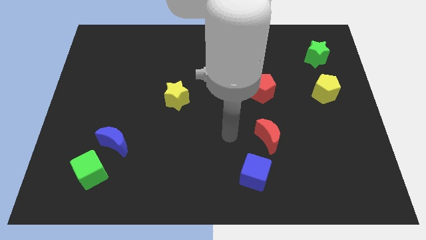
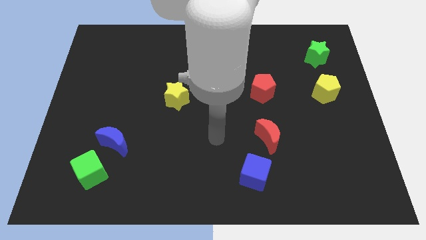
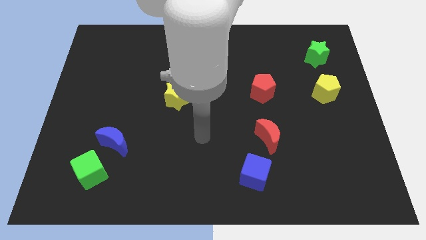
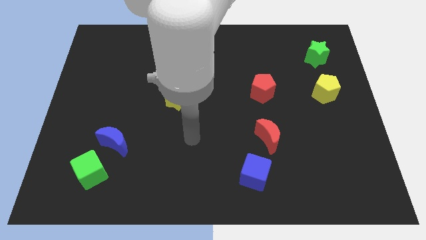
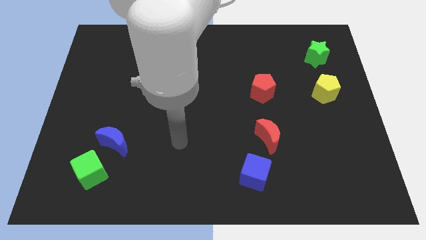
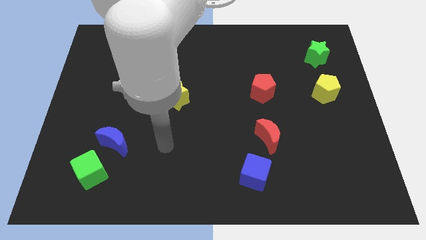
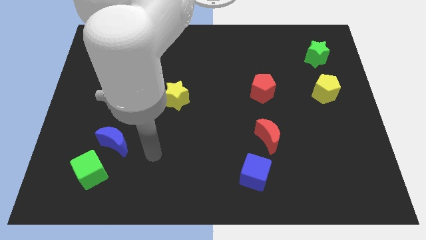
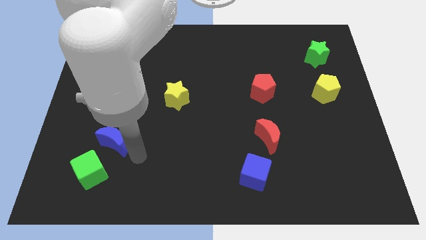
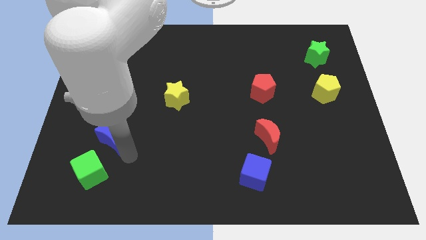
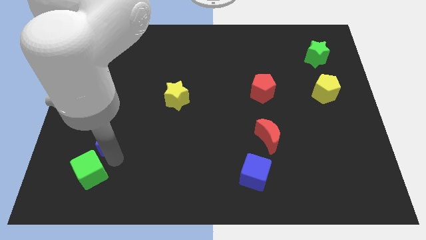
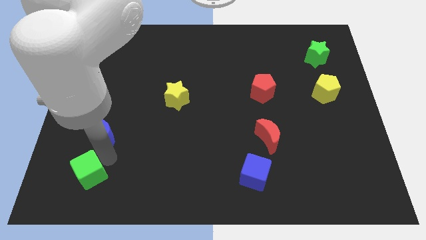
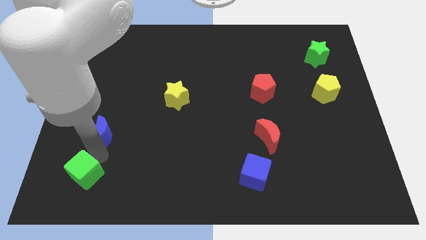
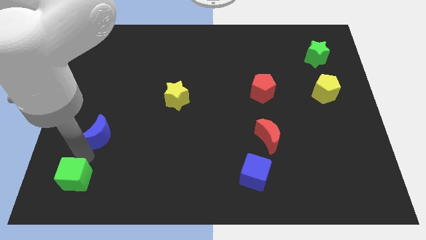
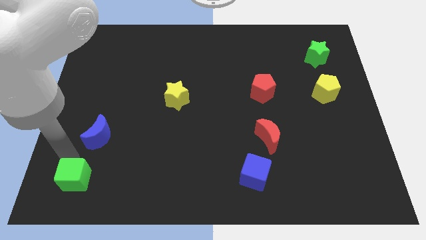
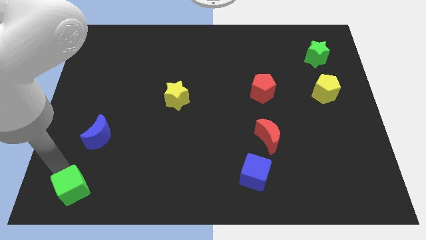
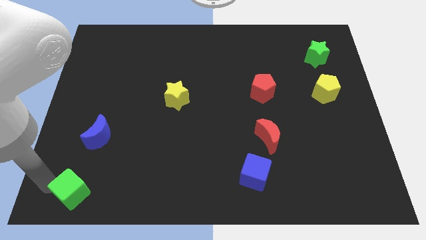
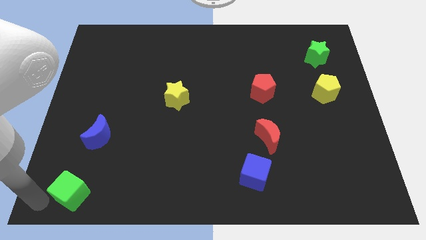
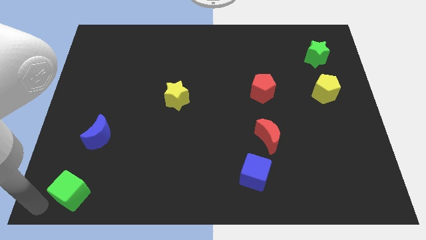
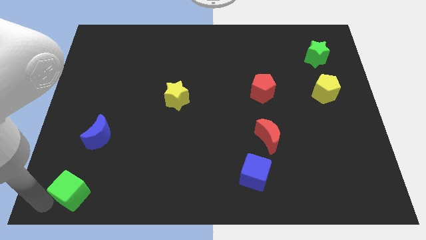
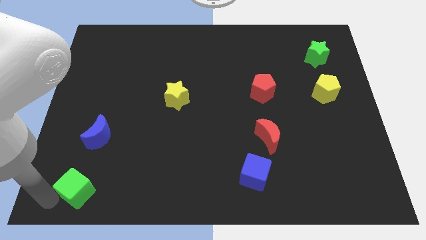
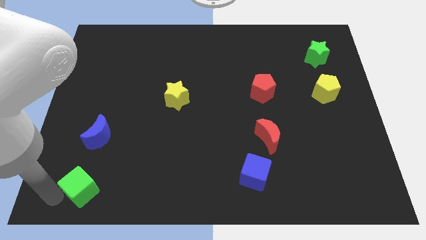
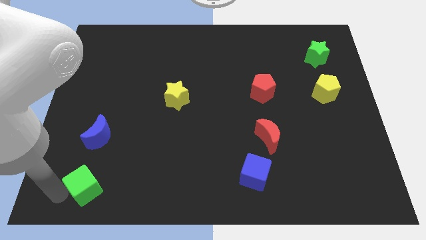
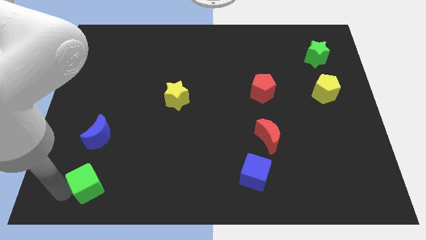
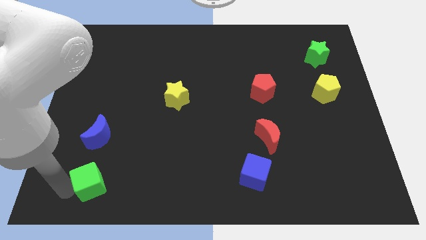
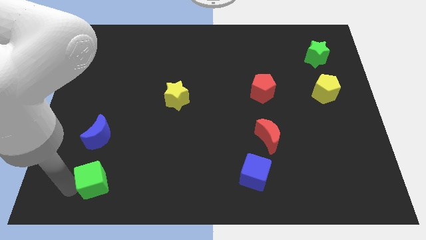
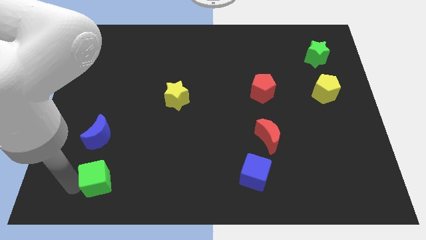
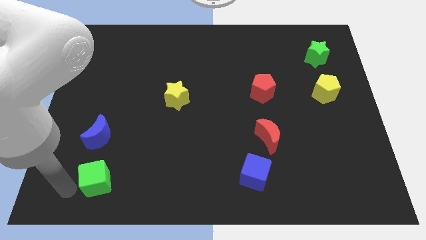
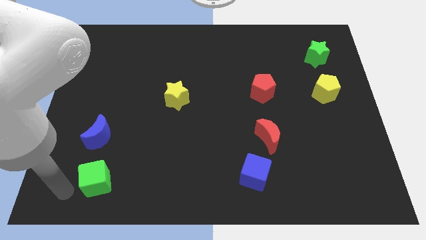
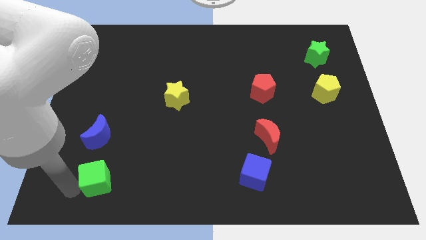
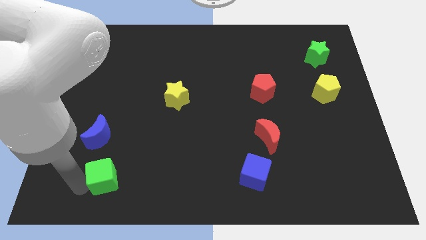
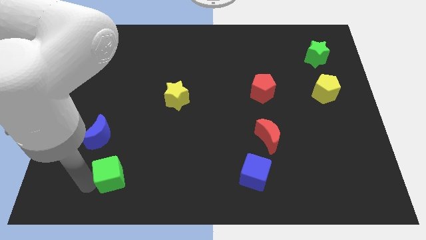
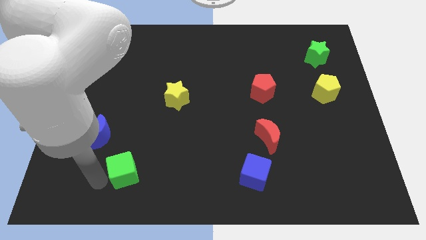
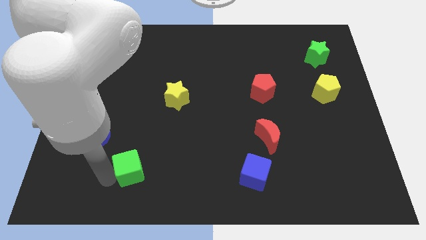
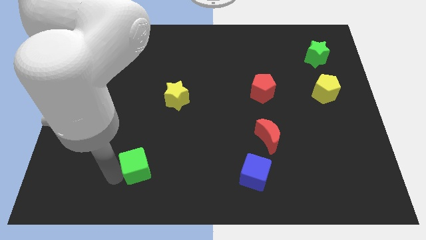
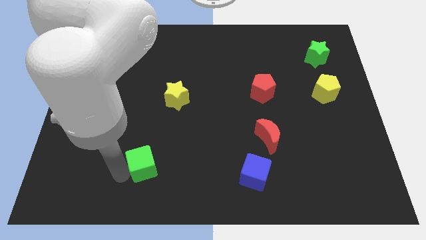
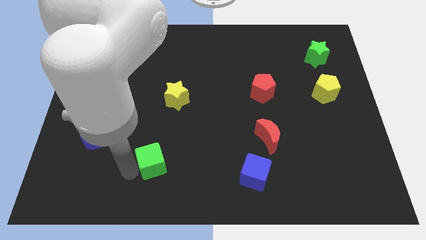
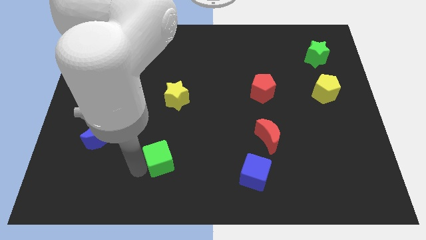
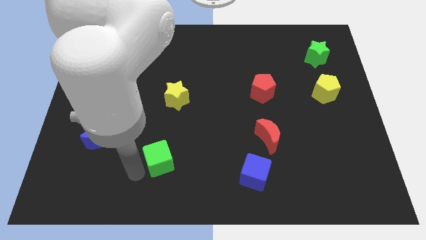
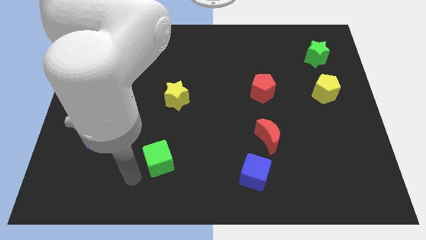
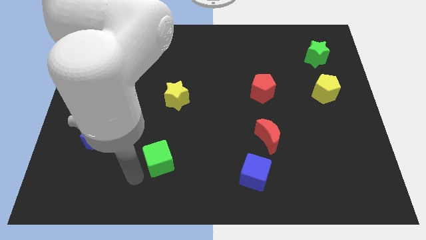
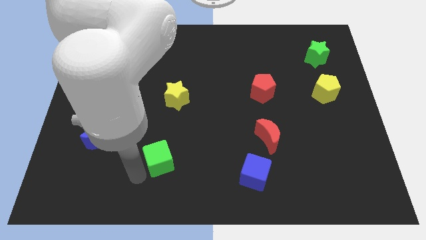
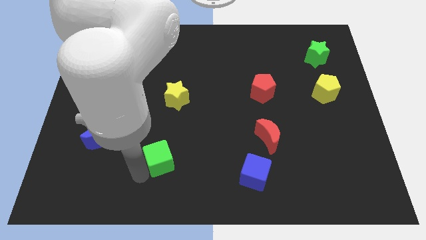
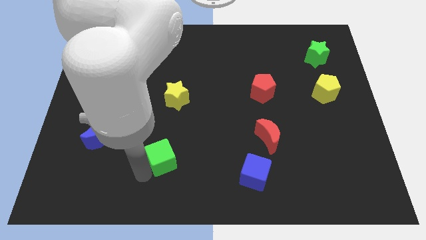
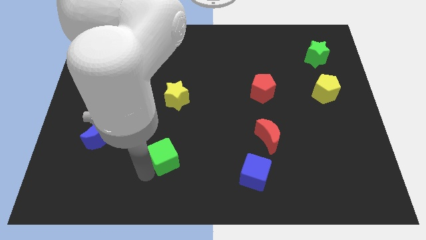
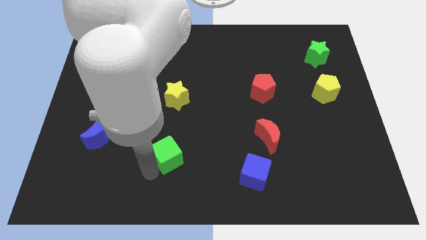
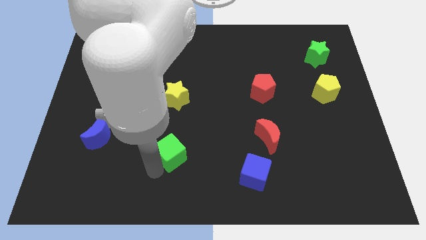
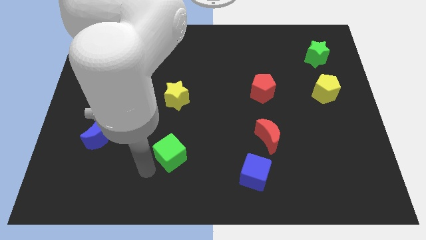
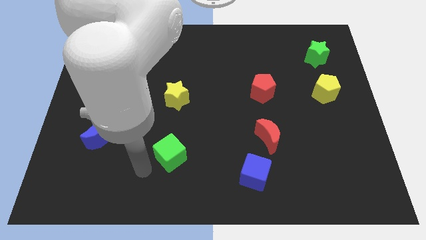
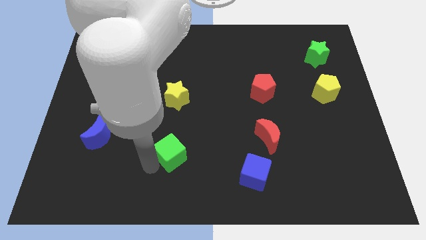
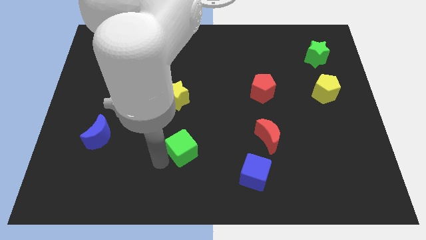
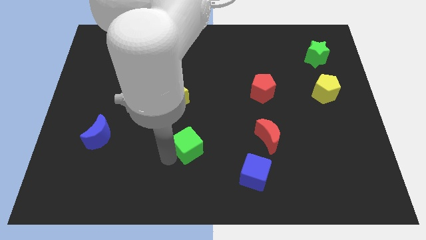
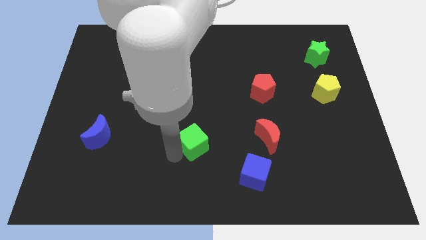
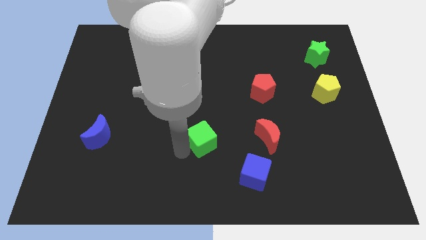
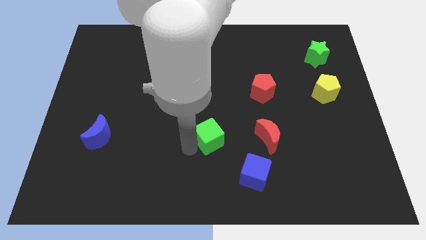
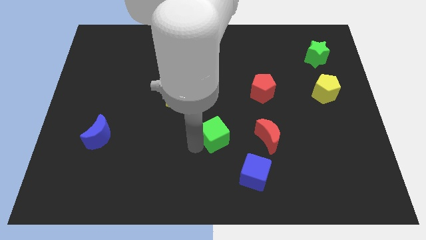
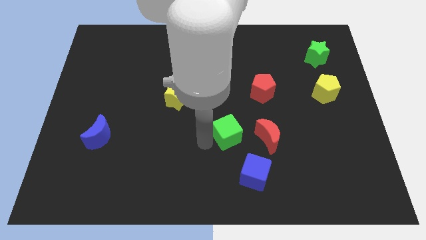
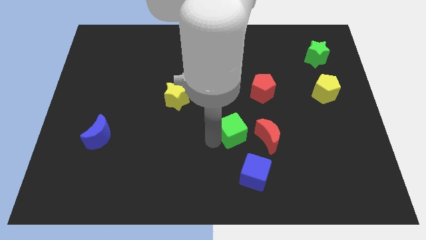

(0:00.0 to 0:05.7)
push the green cube to the top left side of the red moon

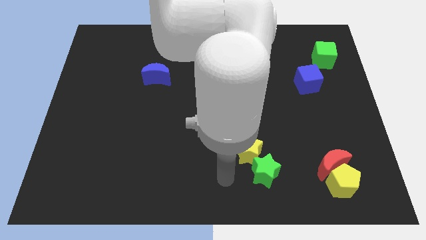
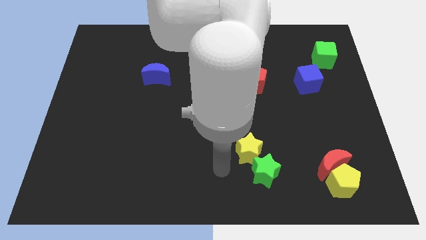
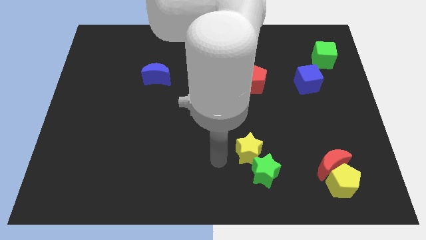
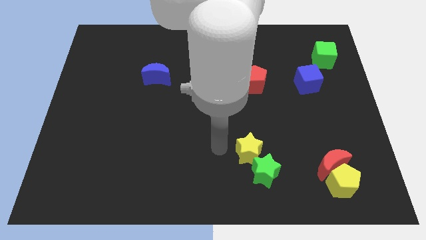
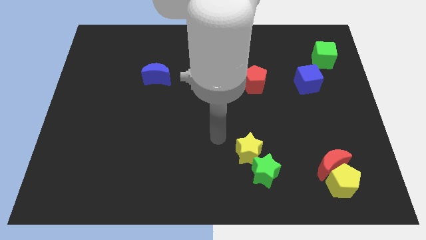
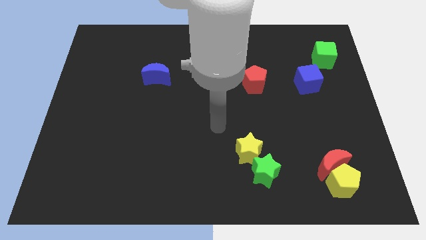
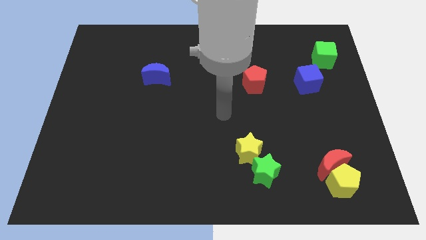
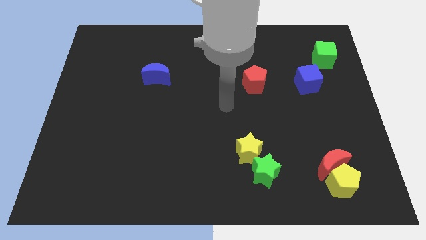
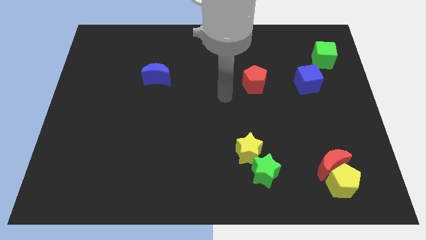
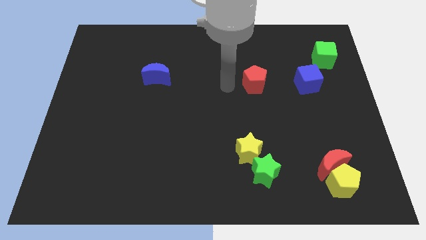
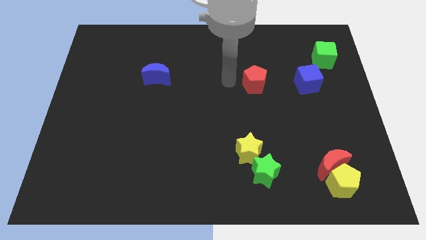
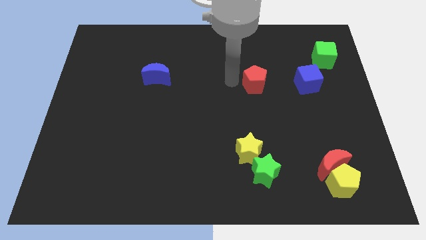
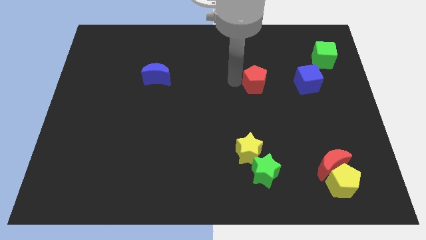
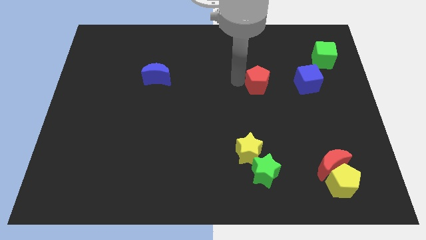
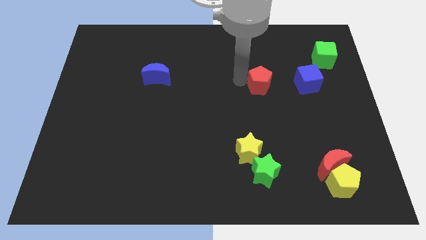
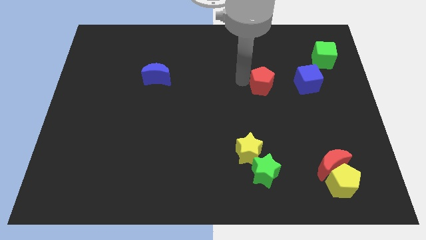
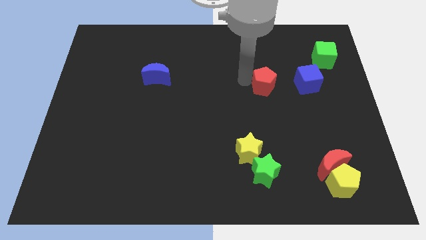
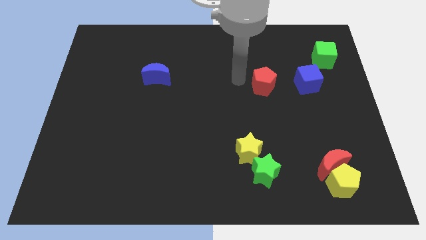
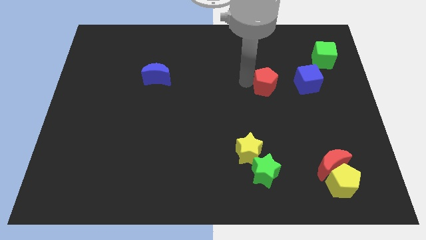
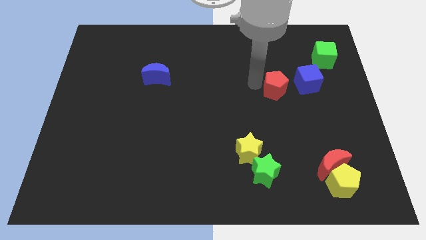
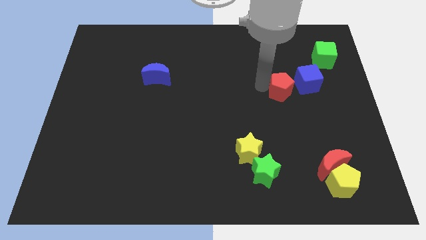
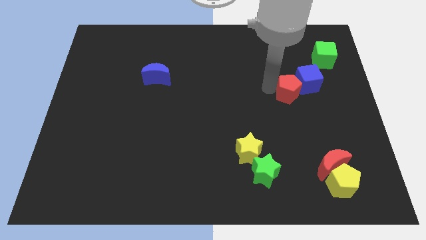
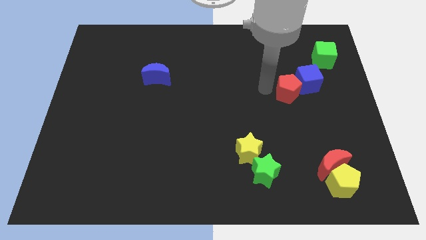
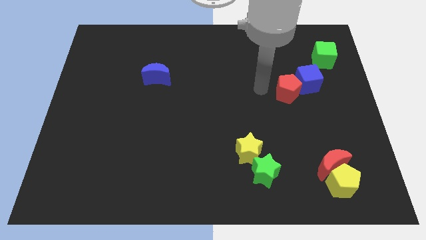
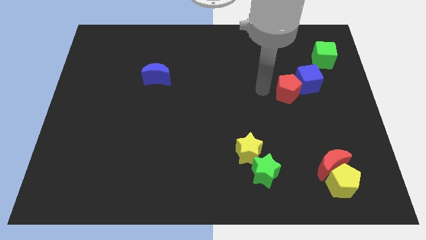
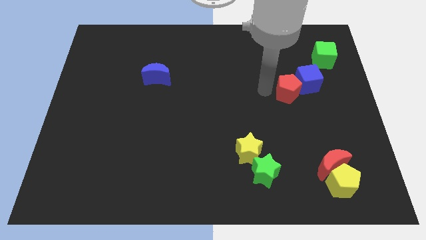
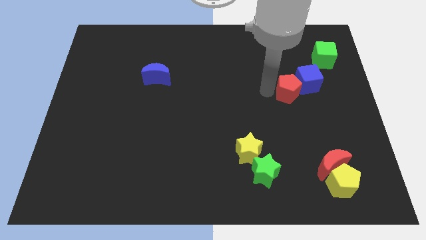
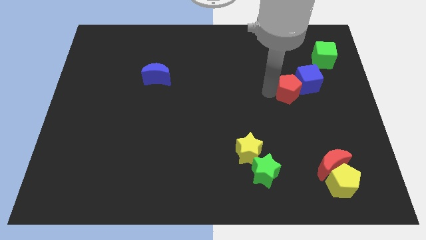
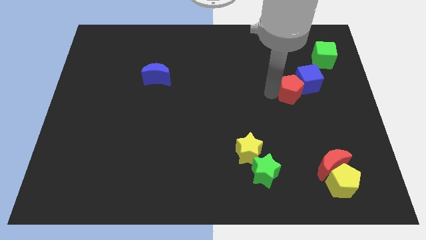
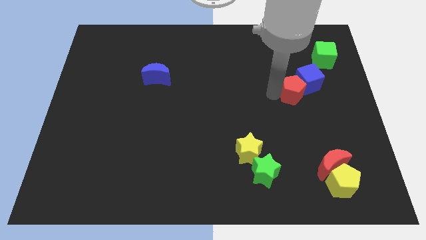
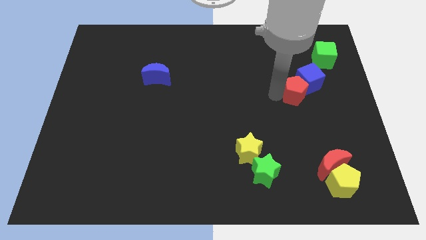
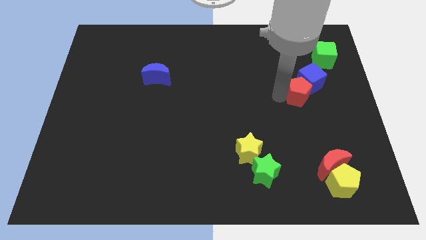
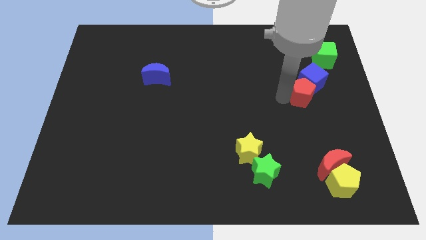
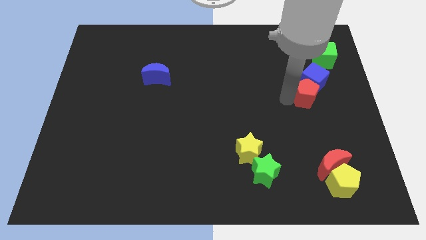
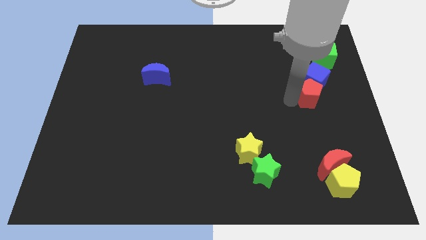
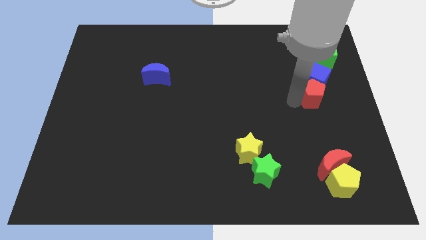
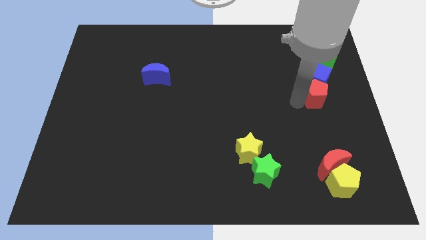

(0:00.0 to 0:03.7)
slide the red pentagon to the bottom right side of the blue cube
